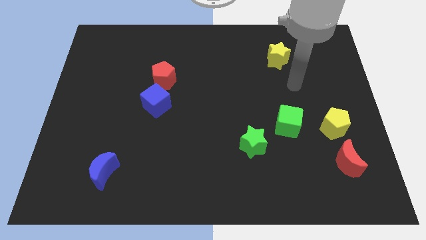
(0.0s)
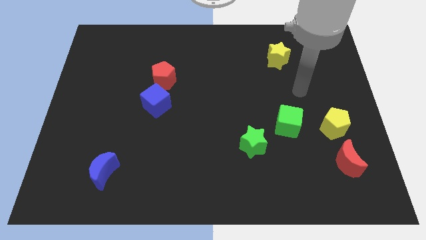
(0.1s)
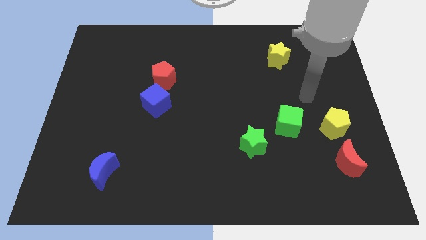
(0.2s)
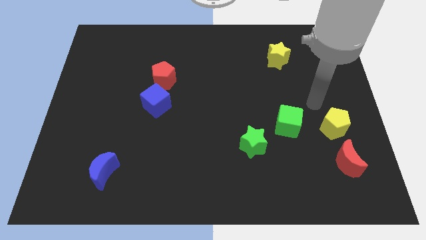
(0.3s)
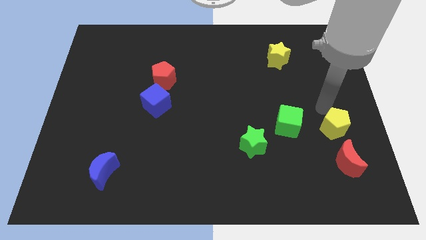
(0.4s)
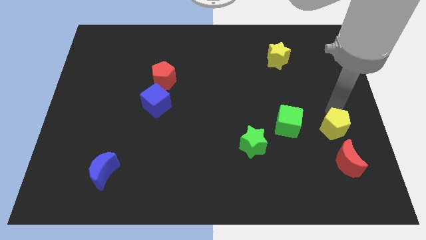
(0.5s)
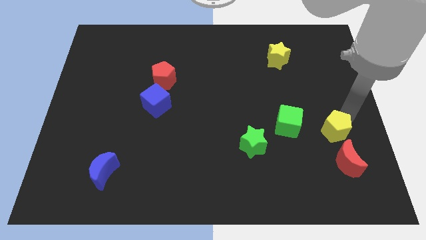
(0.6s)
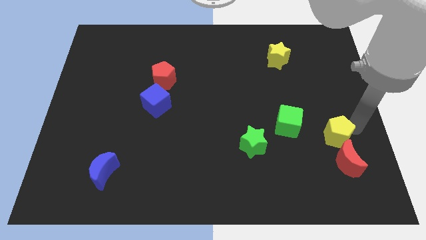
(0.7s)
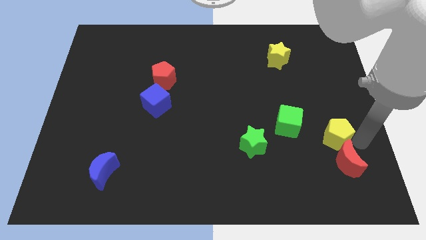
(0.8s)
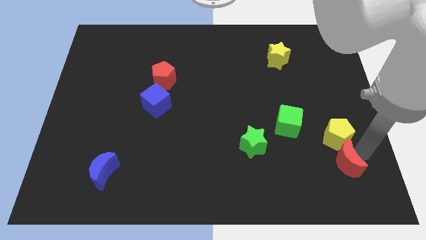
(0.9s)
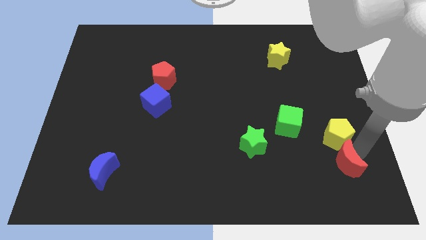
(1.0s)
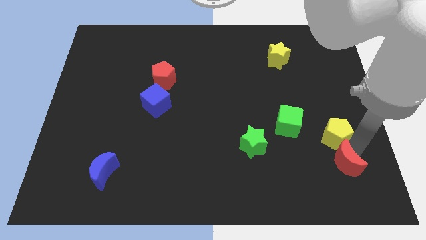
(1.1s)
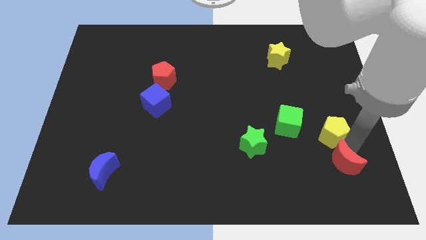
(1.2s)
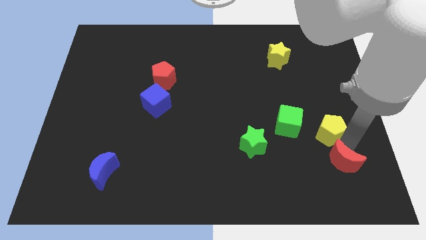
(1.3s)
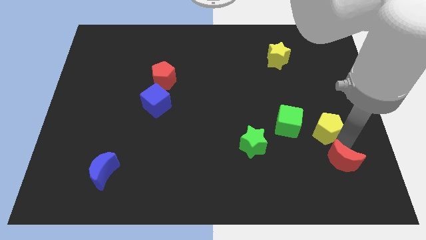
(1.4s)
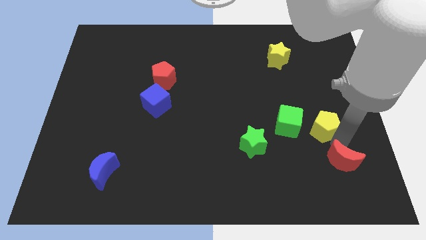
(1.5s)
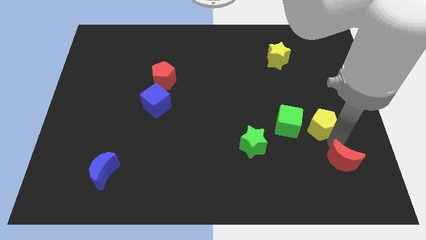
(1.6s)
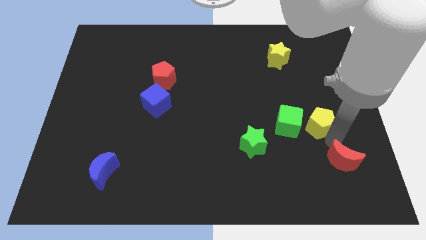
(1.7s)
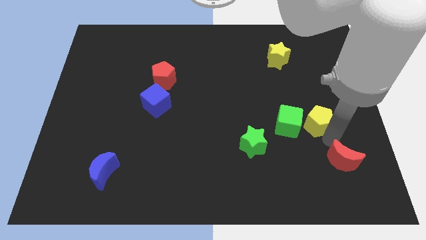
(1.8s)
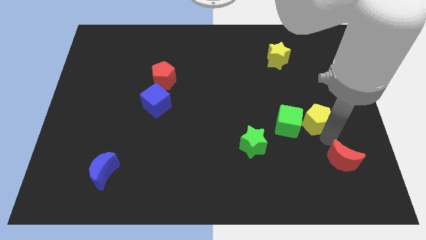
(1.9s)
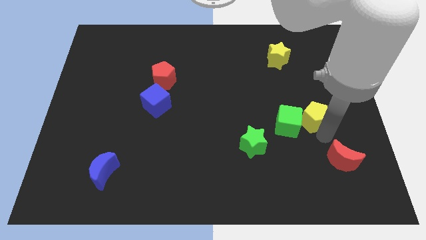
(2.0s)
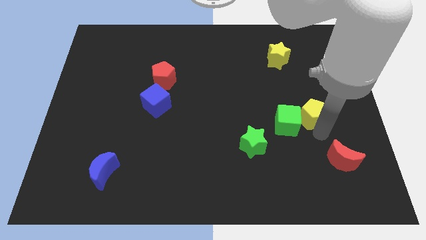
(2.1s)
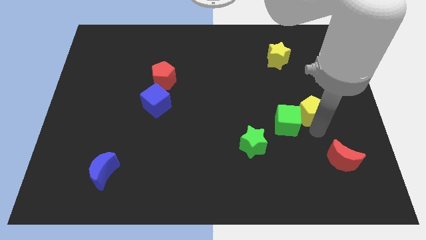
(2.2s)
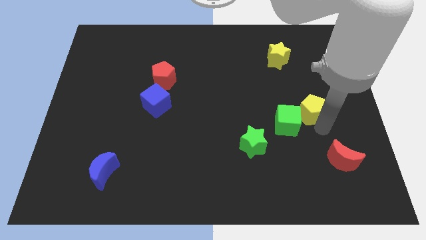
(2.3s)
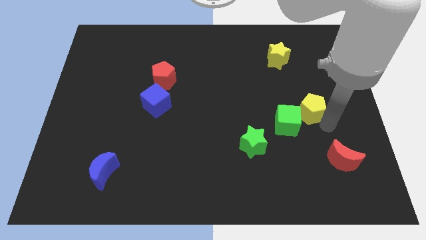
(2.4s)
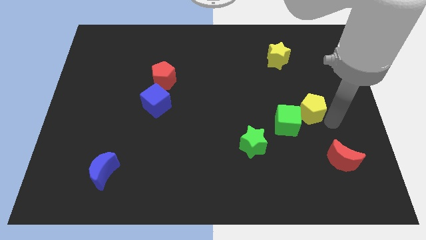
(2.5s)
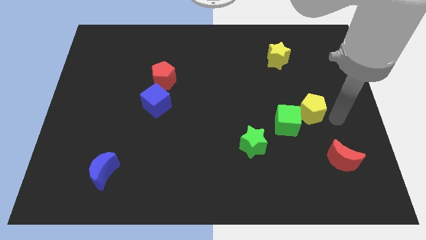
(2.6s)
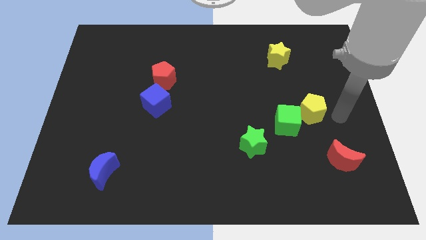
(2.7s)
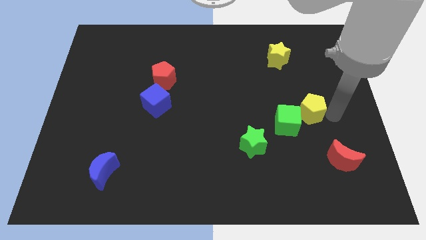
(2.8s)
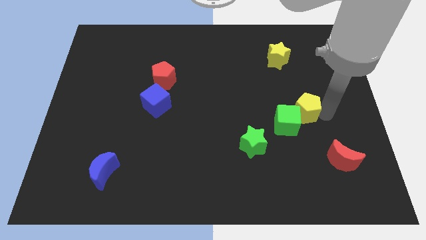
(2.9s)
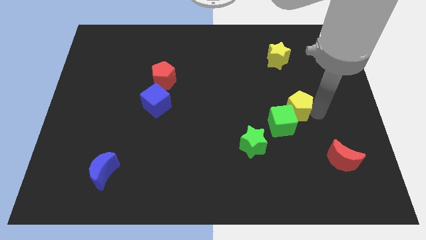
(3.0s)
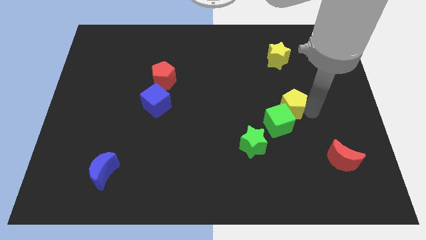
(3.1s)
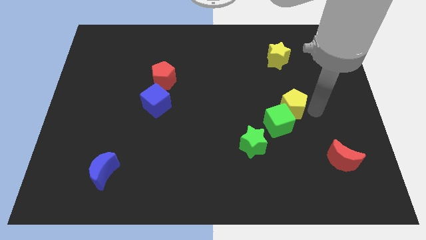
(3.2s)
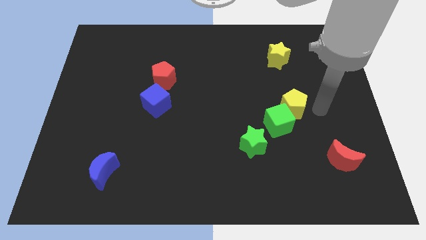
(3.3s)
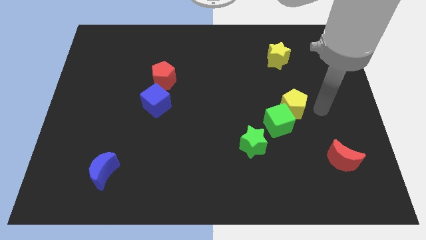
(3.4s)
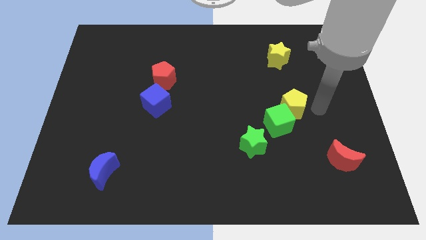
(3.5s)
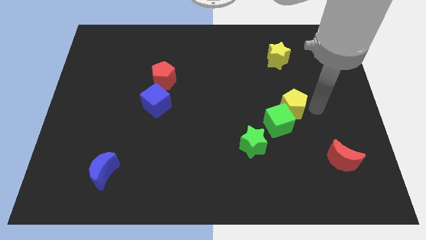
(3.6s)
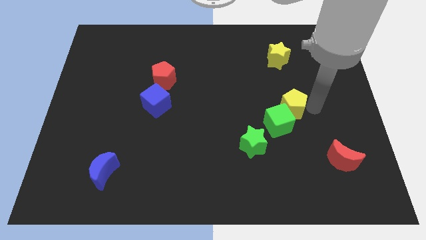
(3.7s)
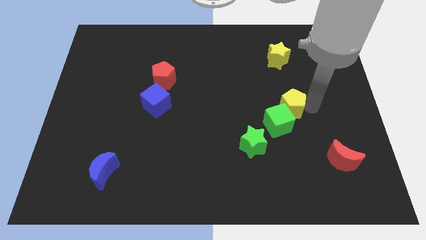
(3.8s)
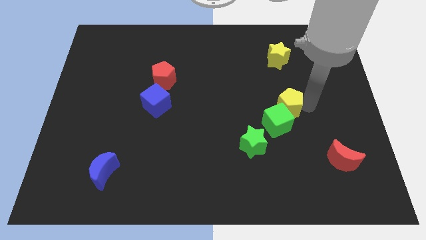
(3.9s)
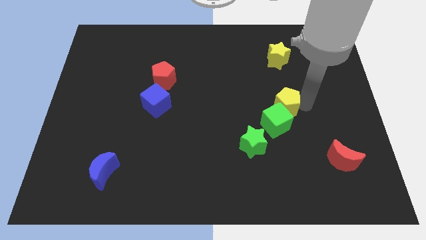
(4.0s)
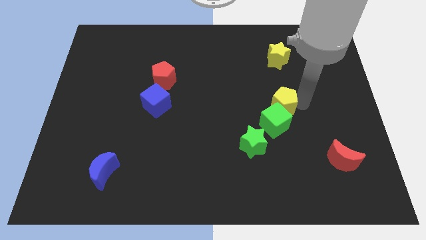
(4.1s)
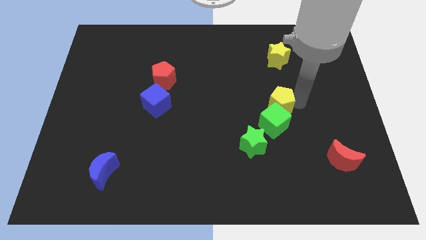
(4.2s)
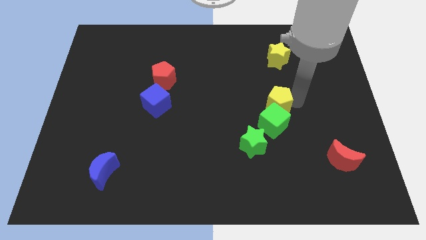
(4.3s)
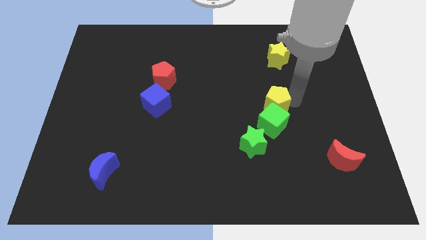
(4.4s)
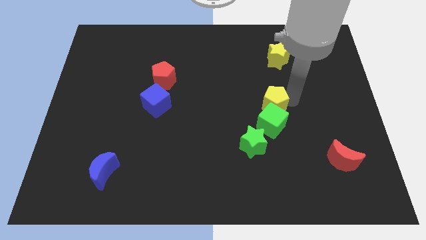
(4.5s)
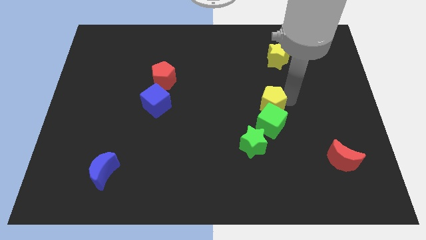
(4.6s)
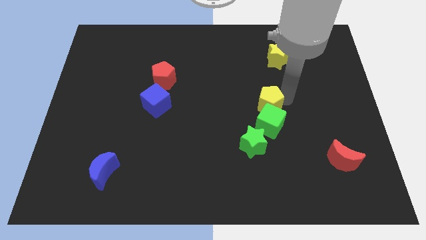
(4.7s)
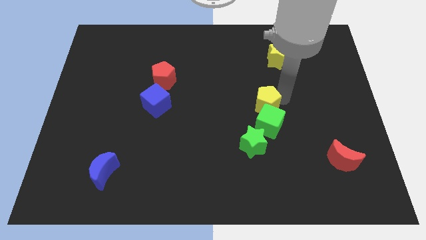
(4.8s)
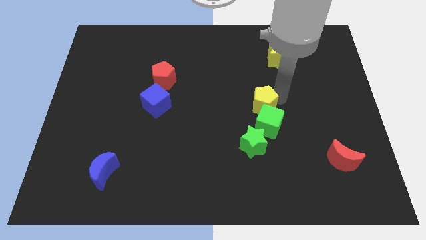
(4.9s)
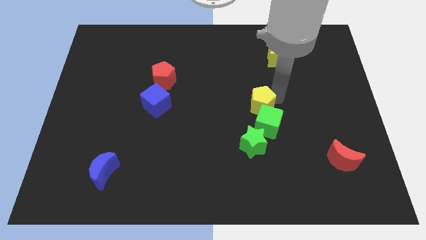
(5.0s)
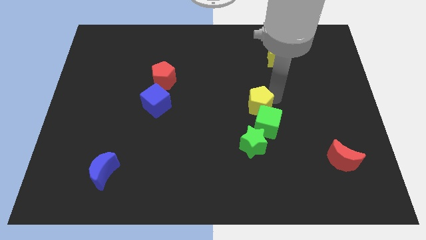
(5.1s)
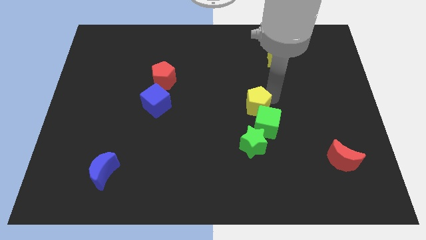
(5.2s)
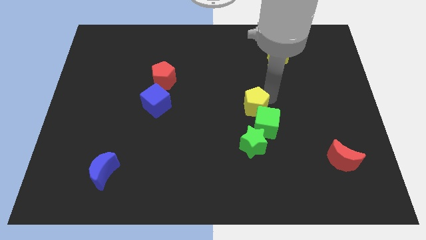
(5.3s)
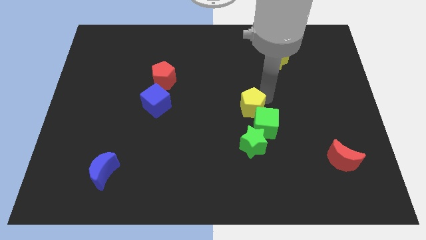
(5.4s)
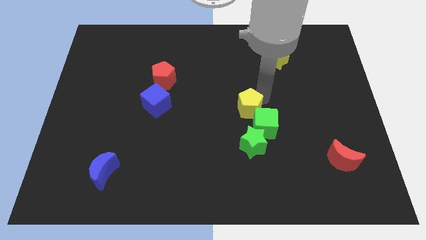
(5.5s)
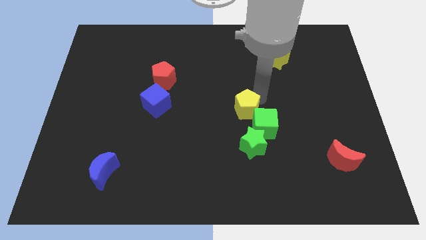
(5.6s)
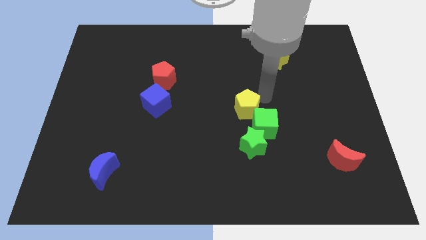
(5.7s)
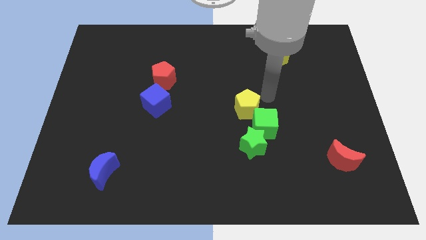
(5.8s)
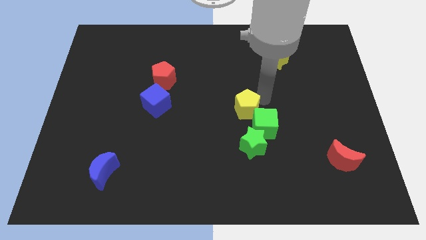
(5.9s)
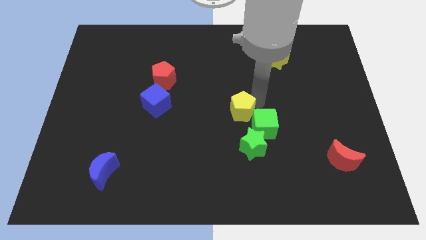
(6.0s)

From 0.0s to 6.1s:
push the yellow pentagon to the left

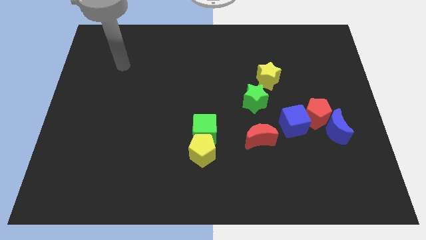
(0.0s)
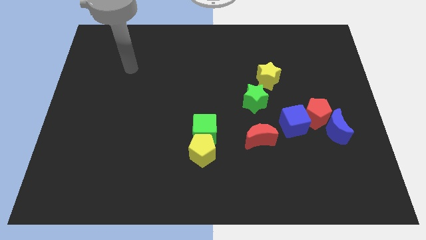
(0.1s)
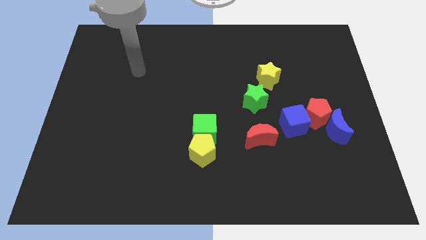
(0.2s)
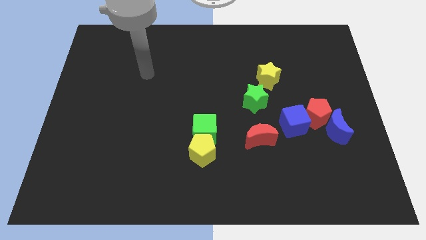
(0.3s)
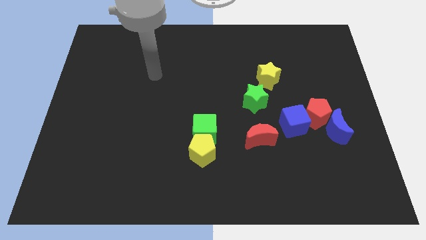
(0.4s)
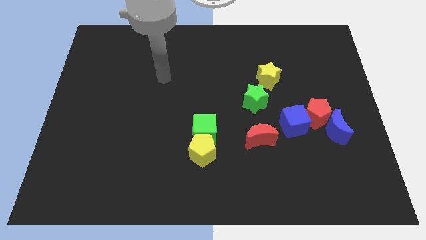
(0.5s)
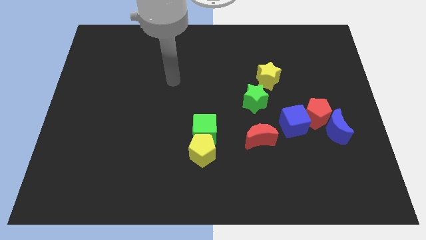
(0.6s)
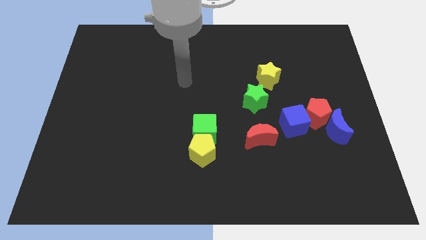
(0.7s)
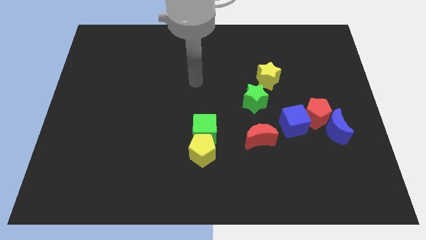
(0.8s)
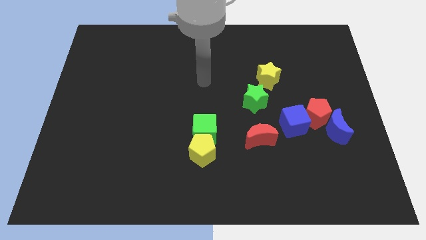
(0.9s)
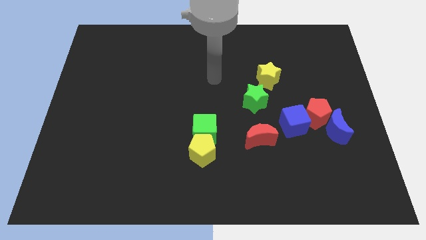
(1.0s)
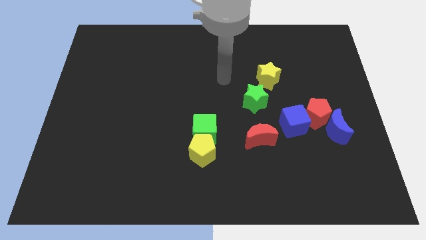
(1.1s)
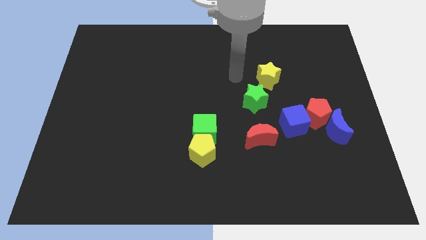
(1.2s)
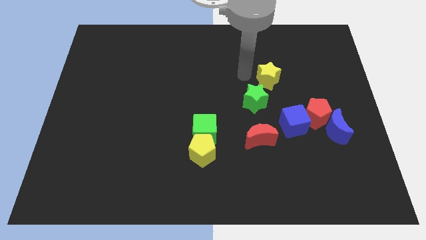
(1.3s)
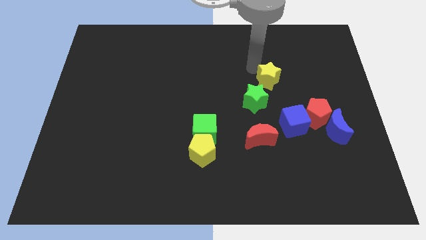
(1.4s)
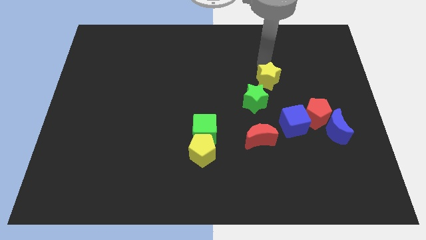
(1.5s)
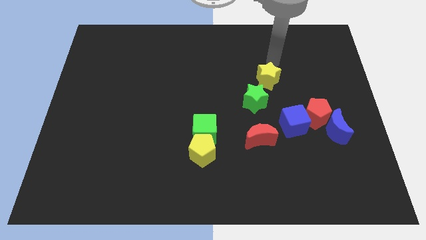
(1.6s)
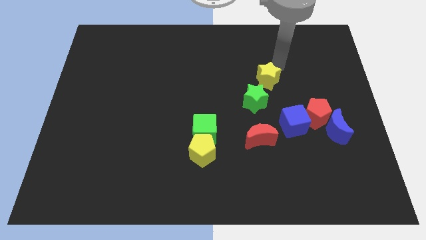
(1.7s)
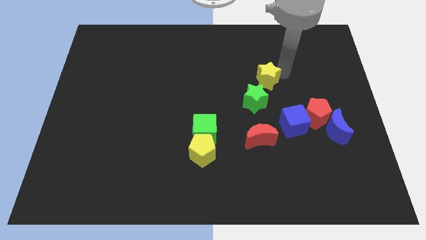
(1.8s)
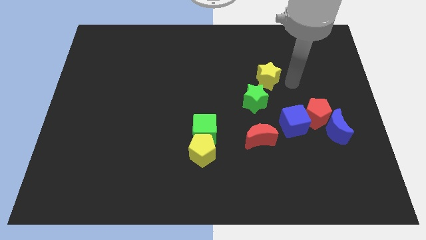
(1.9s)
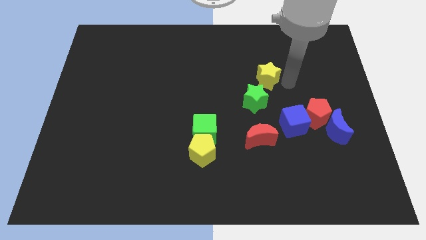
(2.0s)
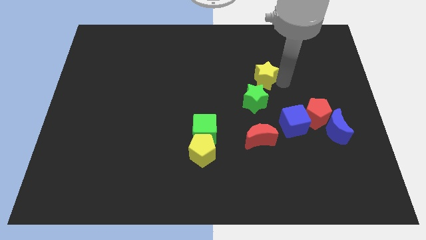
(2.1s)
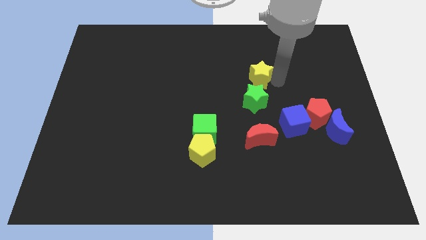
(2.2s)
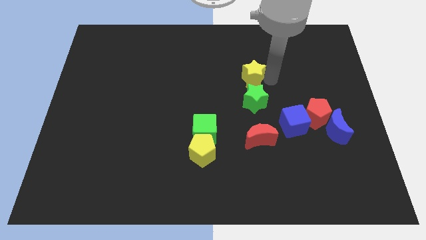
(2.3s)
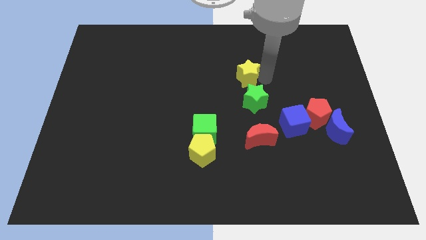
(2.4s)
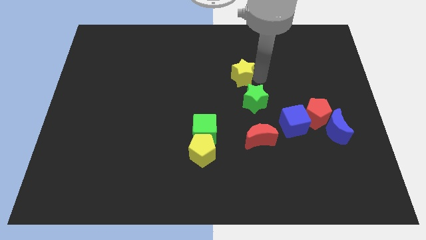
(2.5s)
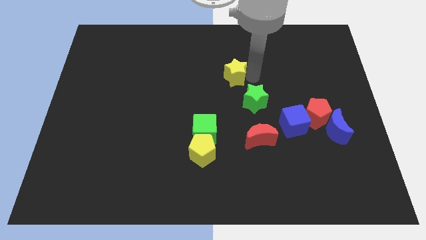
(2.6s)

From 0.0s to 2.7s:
slightly move the yellow star to the left
